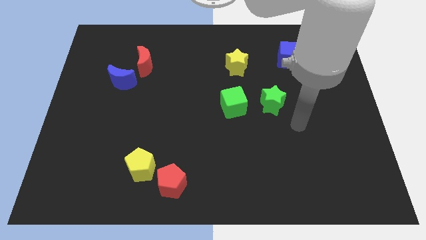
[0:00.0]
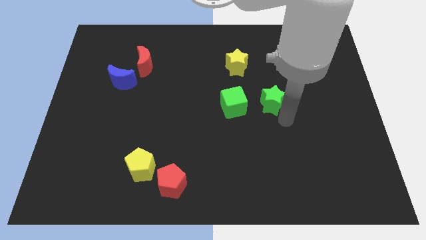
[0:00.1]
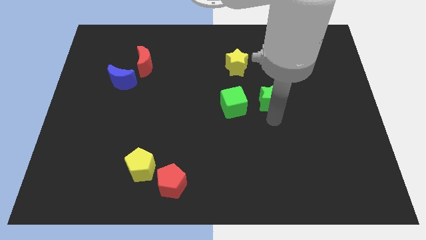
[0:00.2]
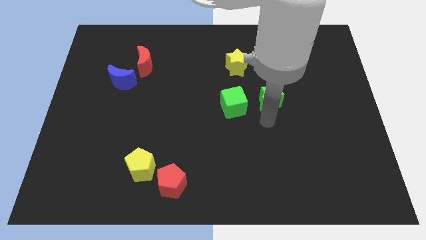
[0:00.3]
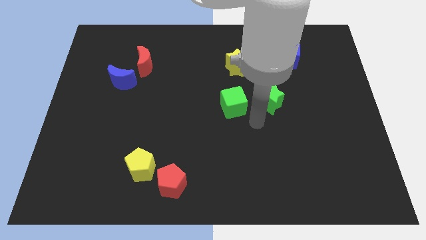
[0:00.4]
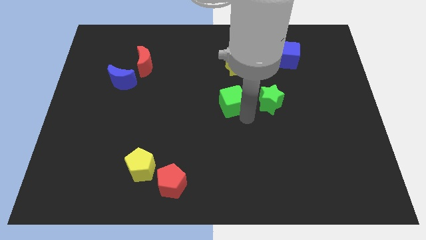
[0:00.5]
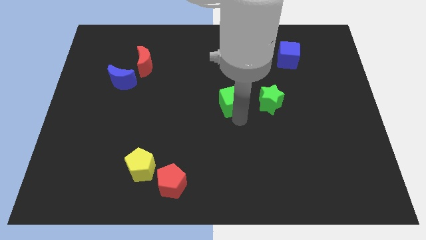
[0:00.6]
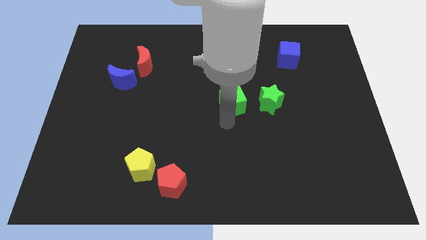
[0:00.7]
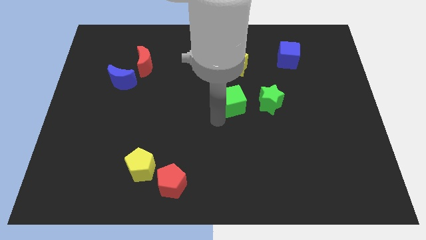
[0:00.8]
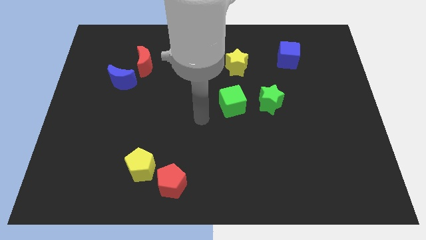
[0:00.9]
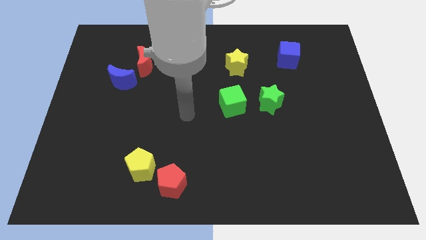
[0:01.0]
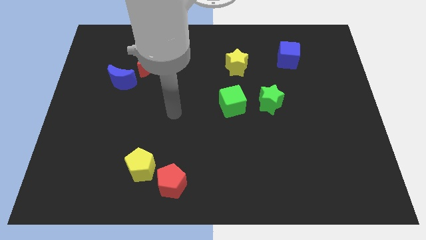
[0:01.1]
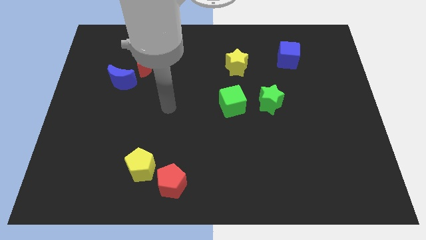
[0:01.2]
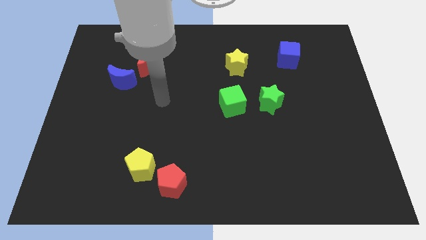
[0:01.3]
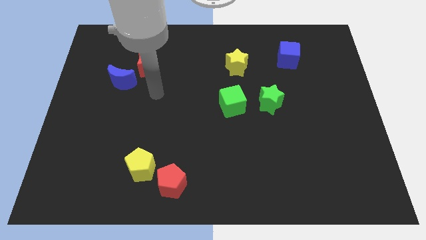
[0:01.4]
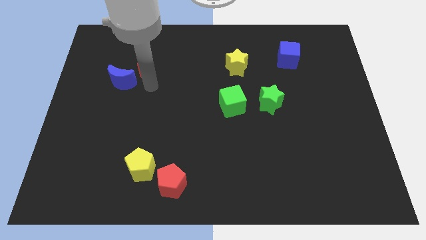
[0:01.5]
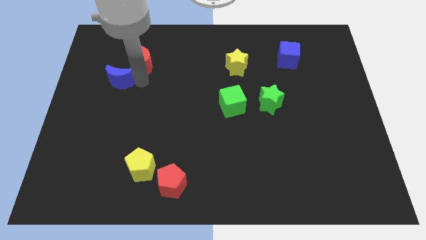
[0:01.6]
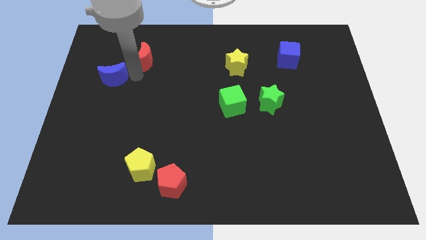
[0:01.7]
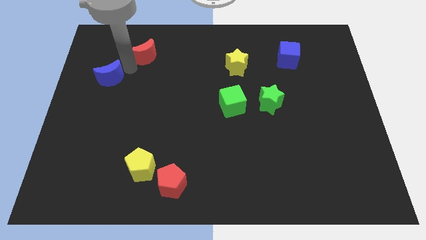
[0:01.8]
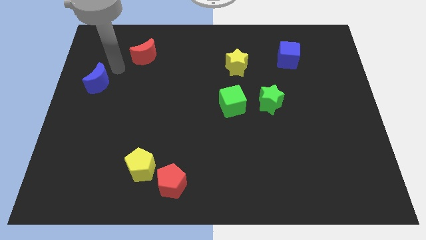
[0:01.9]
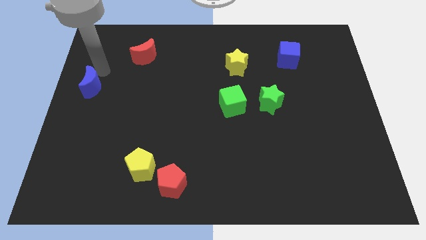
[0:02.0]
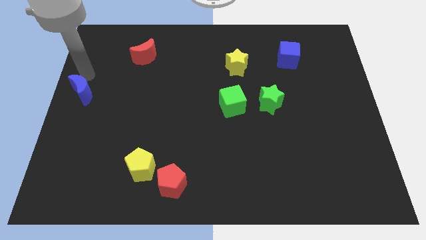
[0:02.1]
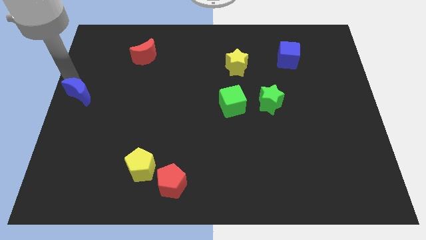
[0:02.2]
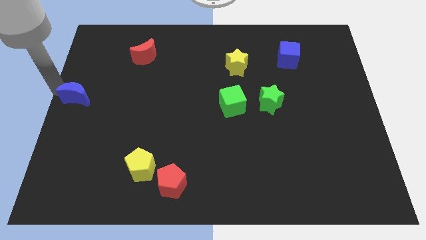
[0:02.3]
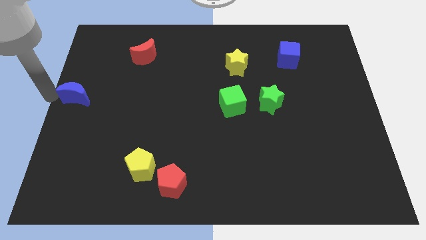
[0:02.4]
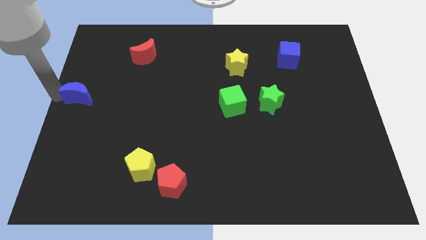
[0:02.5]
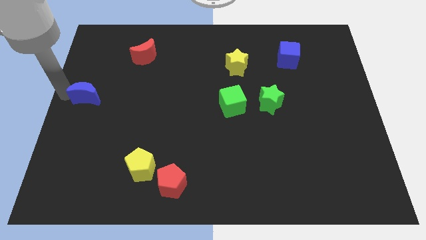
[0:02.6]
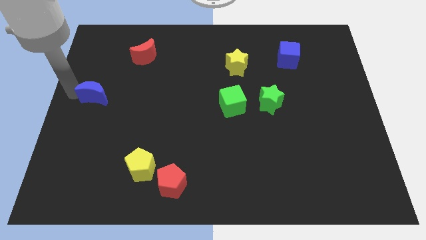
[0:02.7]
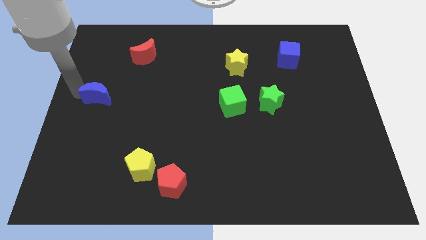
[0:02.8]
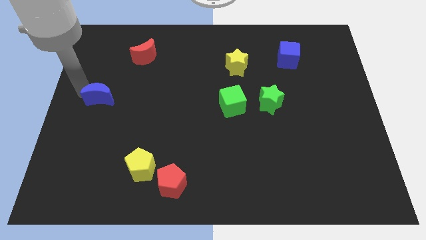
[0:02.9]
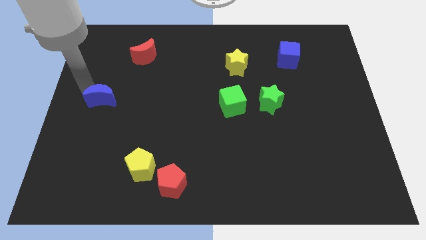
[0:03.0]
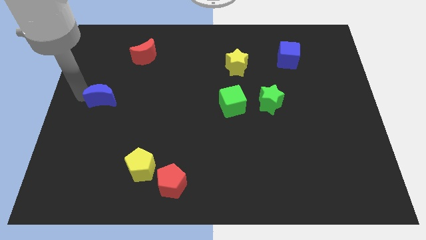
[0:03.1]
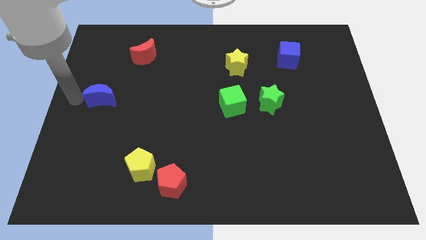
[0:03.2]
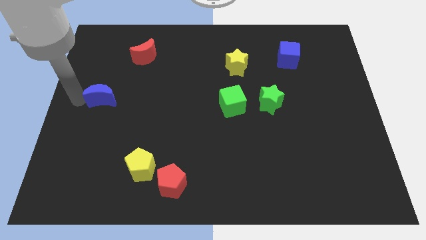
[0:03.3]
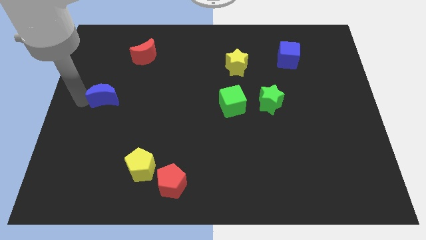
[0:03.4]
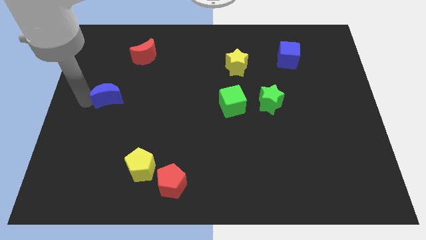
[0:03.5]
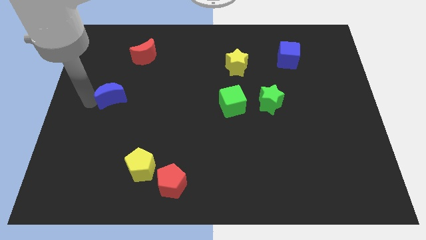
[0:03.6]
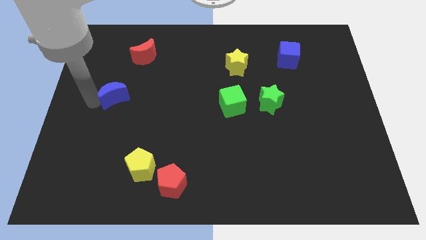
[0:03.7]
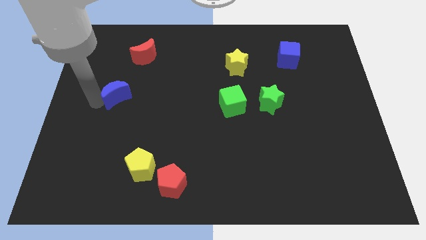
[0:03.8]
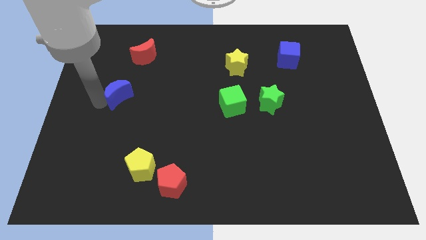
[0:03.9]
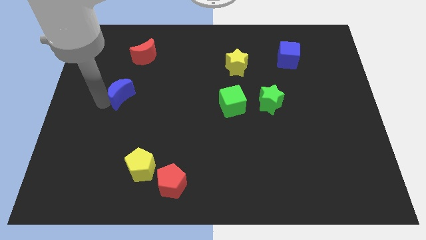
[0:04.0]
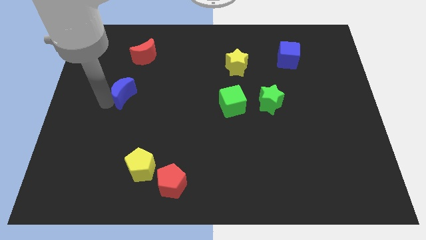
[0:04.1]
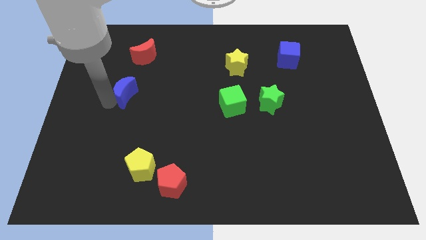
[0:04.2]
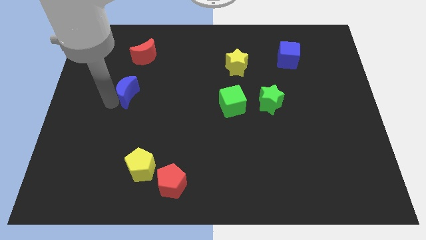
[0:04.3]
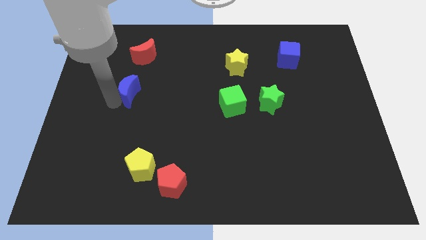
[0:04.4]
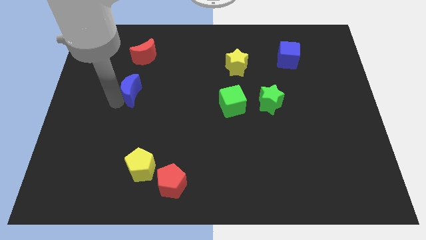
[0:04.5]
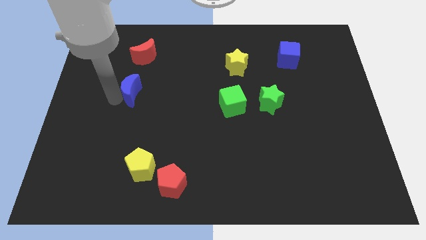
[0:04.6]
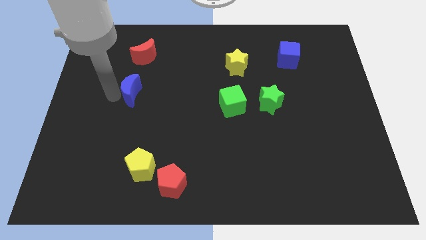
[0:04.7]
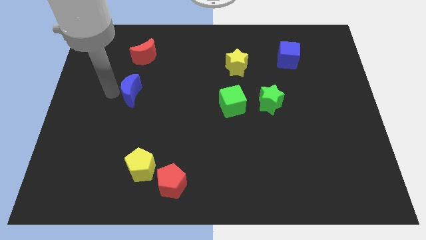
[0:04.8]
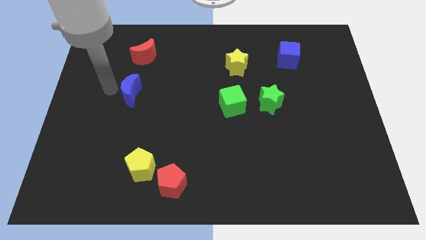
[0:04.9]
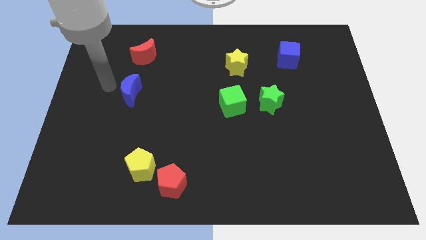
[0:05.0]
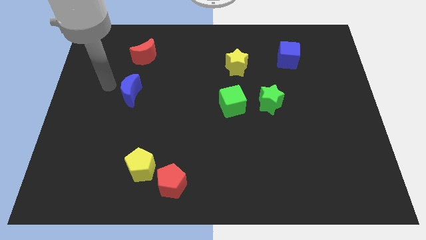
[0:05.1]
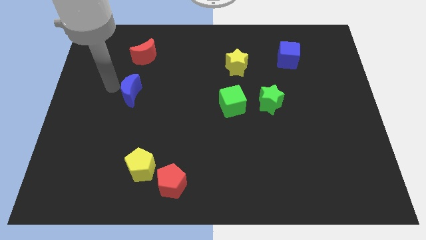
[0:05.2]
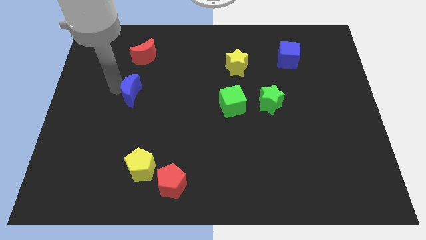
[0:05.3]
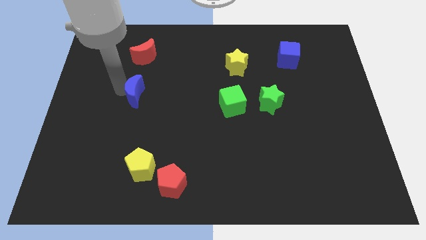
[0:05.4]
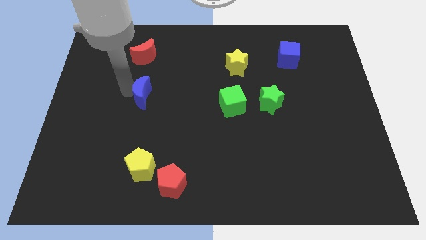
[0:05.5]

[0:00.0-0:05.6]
push the blue moon a little bit downwards and right

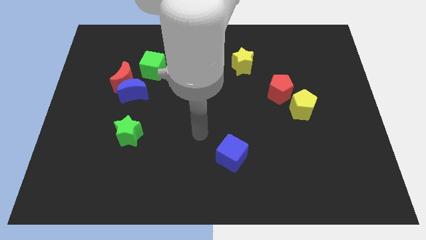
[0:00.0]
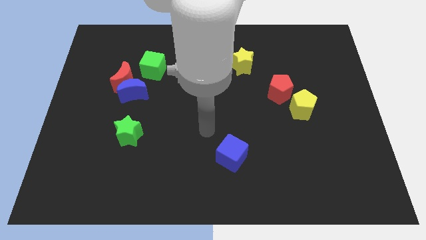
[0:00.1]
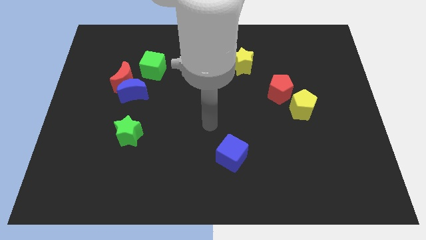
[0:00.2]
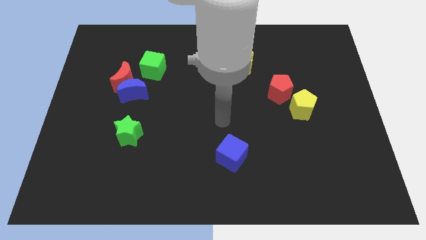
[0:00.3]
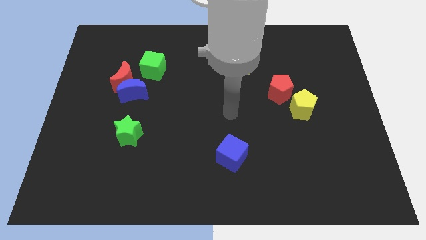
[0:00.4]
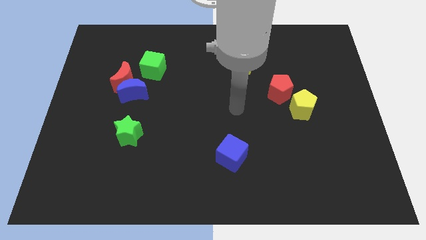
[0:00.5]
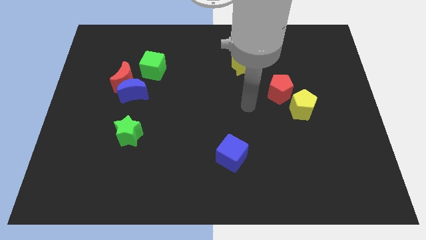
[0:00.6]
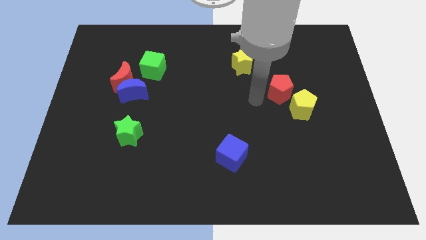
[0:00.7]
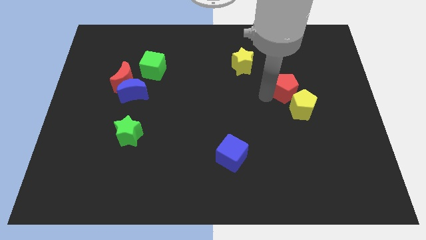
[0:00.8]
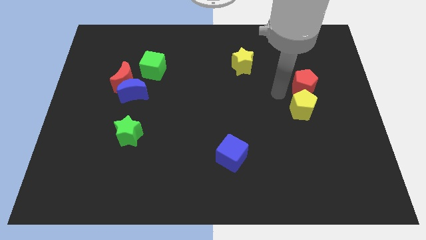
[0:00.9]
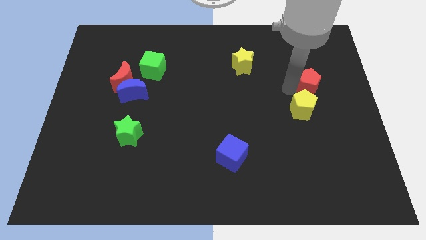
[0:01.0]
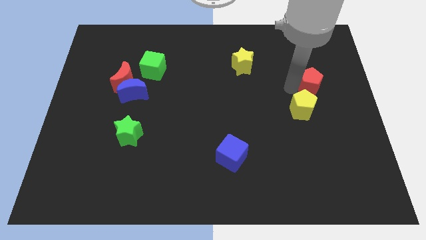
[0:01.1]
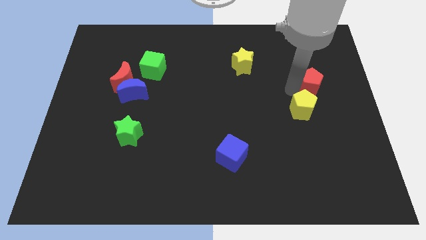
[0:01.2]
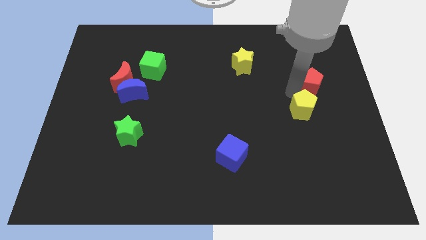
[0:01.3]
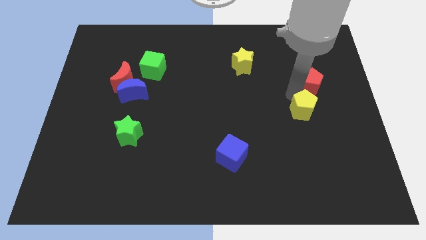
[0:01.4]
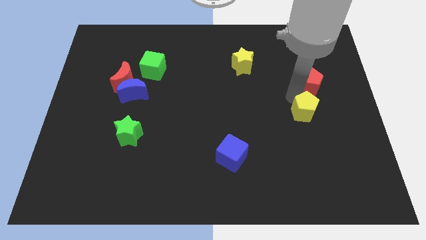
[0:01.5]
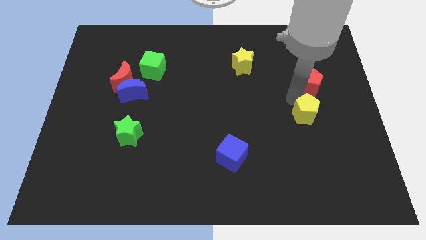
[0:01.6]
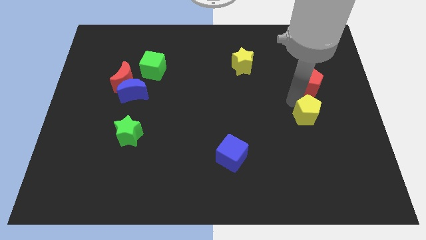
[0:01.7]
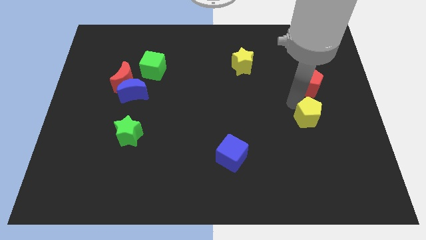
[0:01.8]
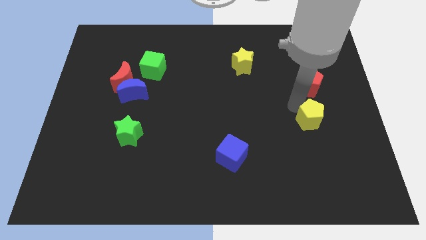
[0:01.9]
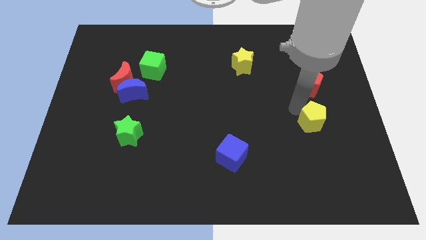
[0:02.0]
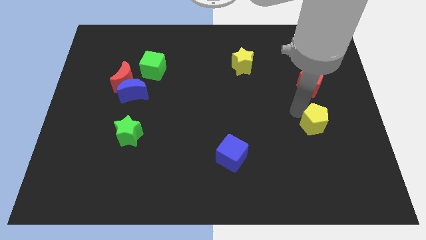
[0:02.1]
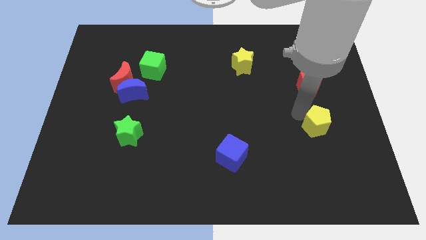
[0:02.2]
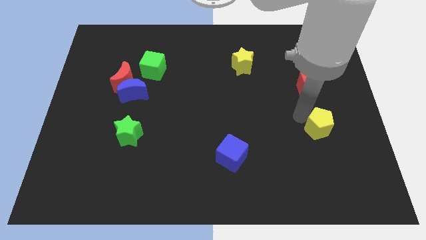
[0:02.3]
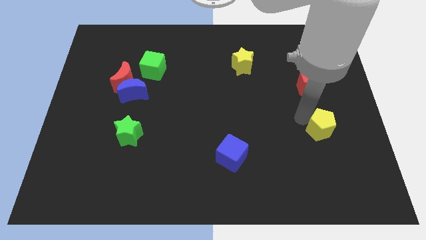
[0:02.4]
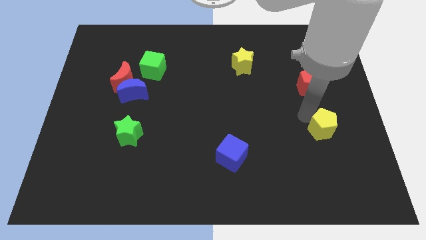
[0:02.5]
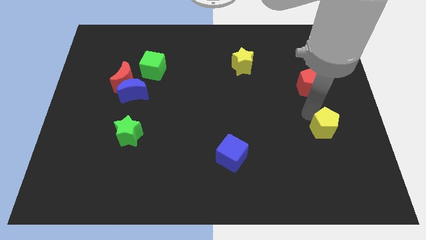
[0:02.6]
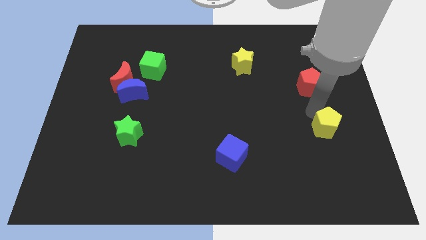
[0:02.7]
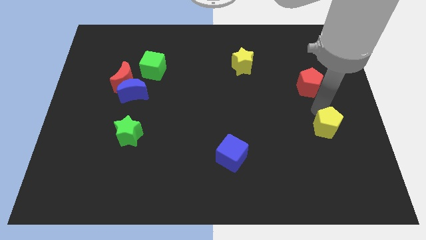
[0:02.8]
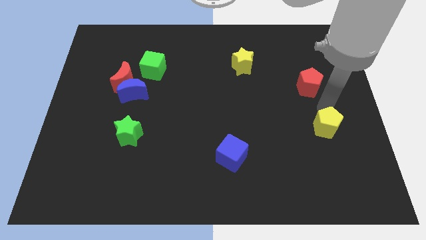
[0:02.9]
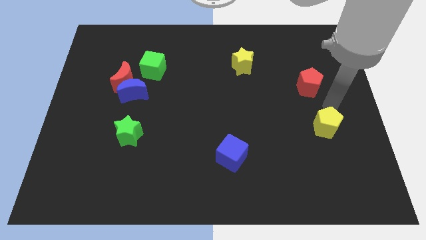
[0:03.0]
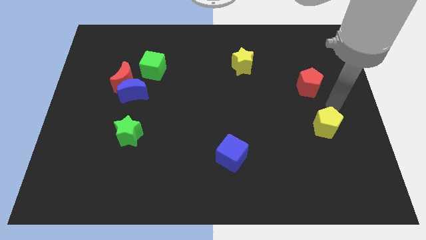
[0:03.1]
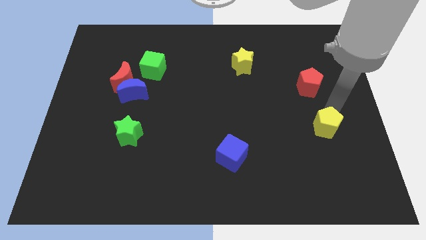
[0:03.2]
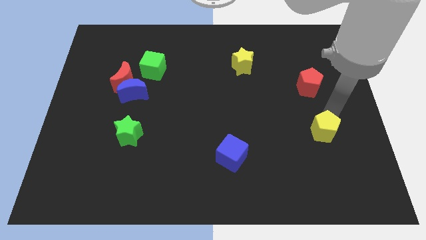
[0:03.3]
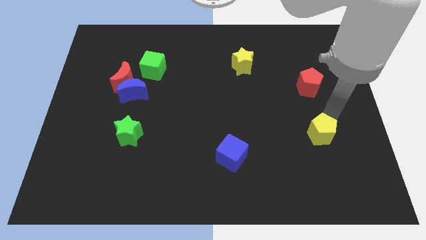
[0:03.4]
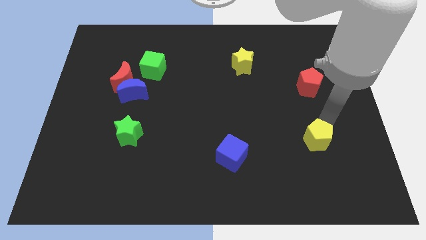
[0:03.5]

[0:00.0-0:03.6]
slide the yellow pentagon down a little bit
